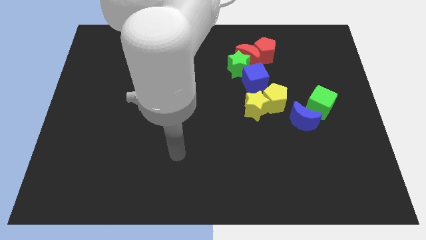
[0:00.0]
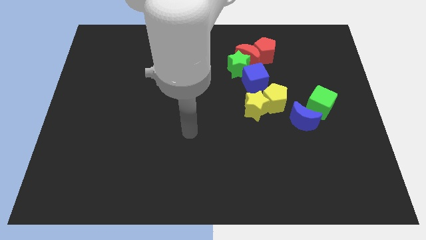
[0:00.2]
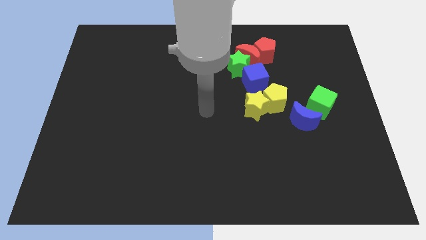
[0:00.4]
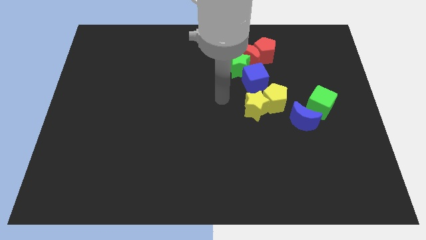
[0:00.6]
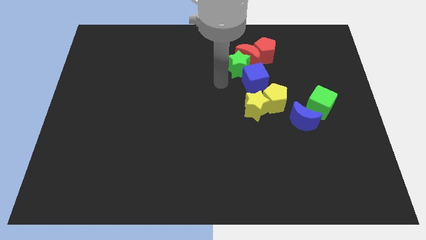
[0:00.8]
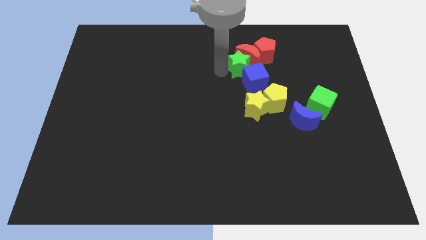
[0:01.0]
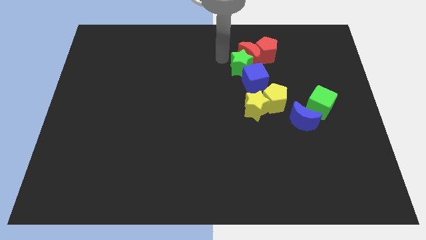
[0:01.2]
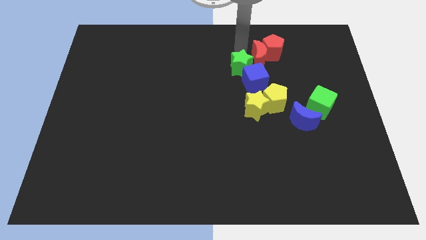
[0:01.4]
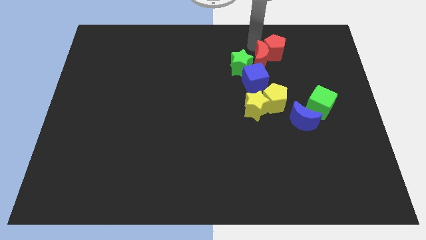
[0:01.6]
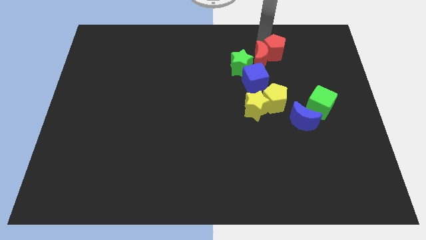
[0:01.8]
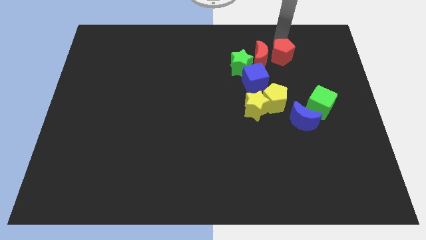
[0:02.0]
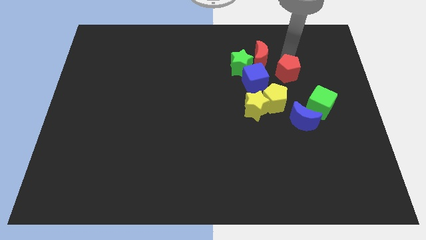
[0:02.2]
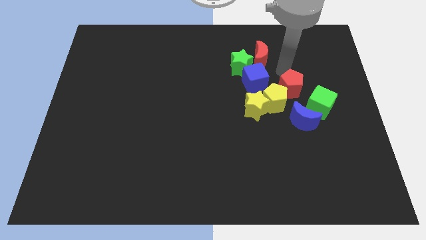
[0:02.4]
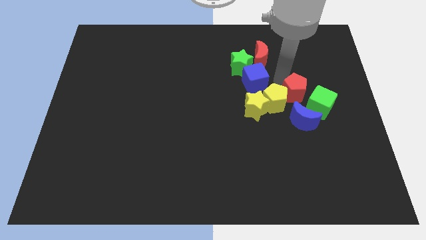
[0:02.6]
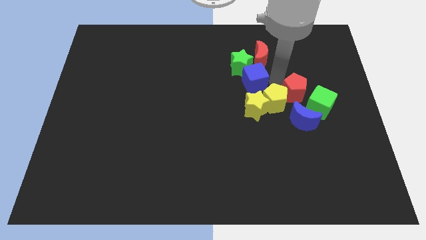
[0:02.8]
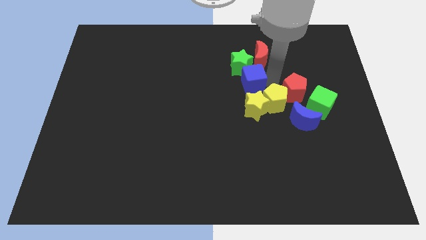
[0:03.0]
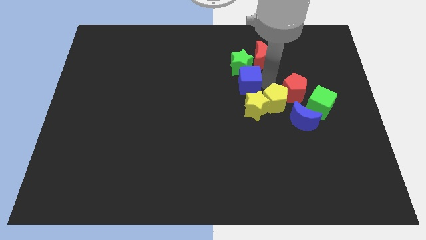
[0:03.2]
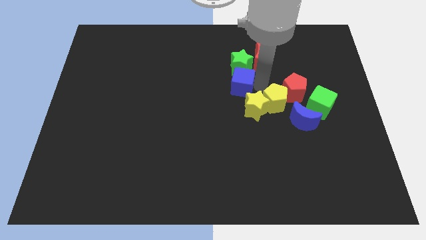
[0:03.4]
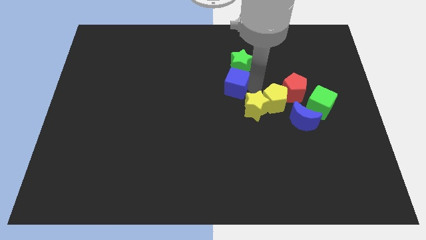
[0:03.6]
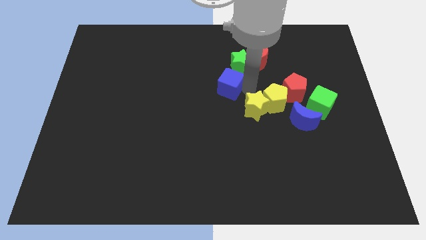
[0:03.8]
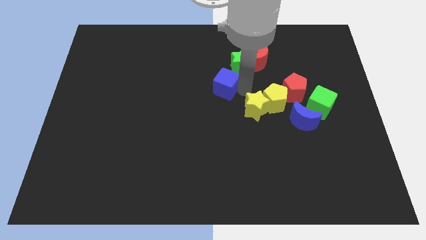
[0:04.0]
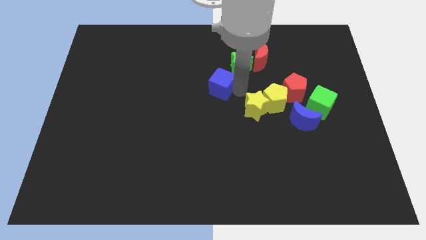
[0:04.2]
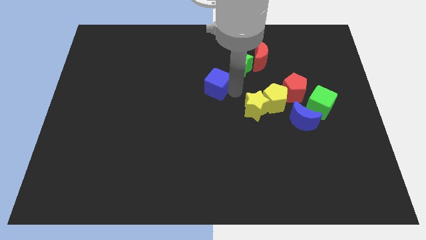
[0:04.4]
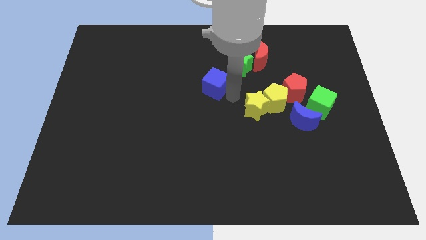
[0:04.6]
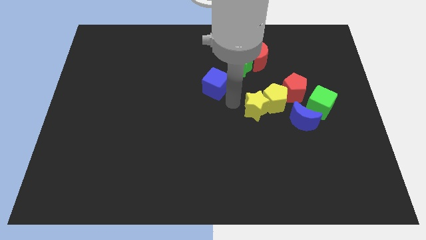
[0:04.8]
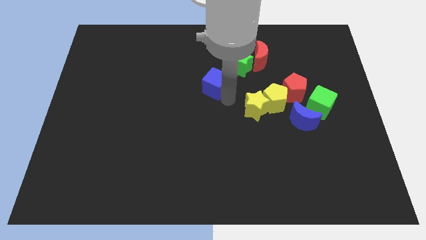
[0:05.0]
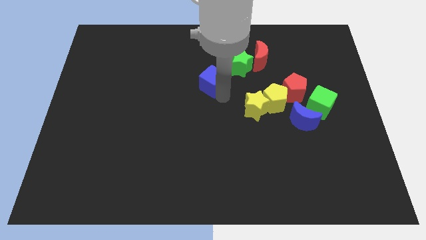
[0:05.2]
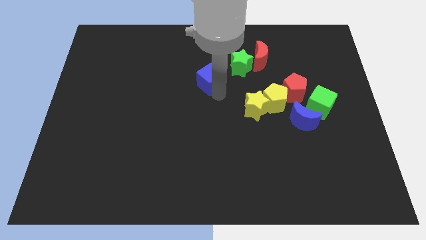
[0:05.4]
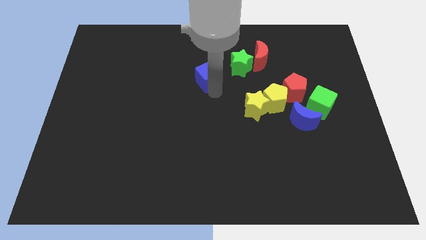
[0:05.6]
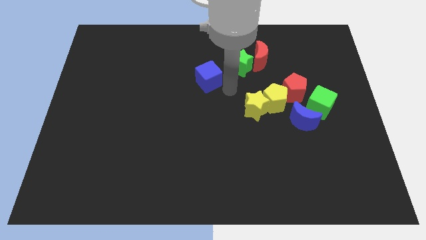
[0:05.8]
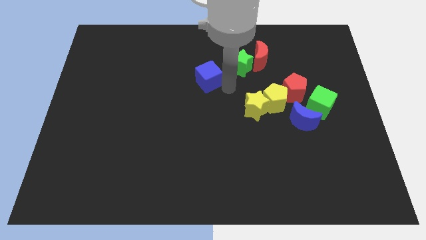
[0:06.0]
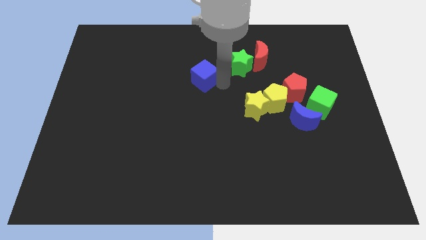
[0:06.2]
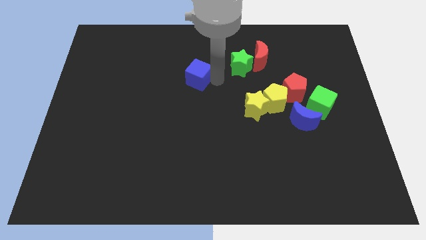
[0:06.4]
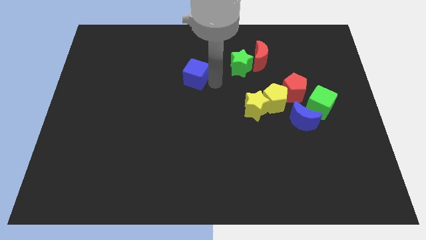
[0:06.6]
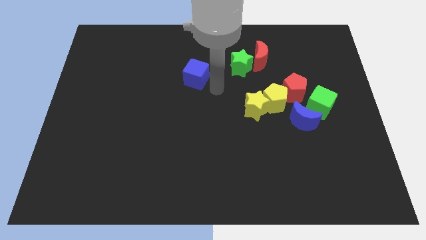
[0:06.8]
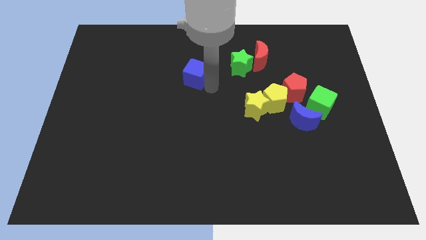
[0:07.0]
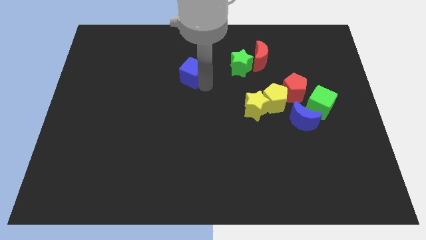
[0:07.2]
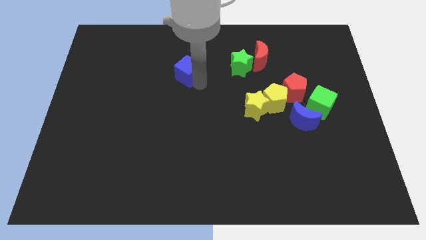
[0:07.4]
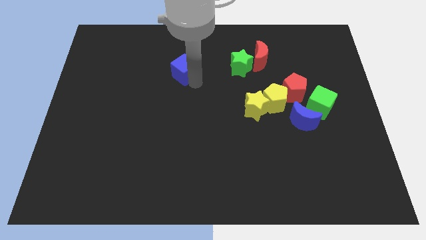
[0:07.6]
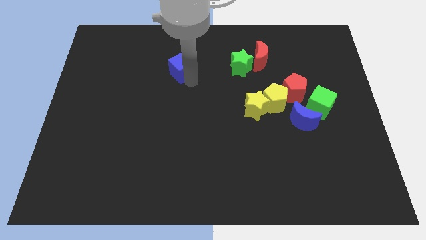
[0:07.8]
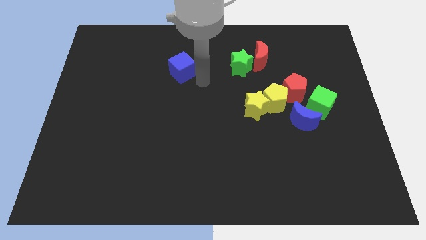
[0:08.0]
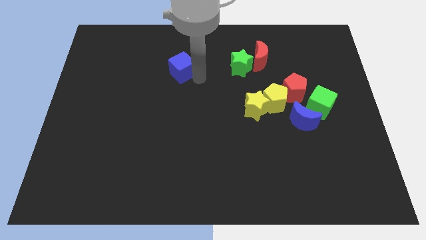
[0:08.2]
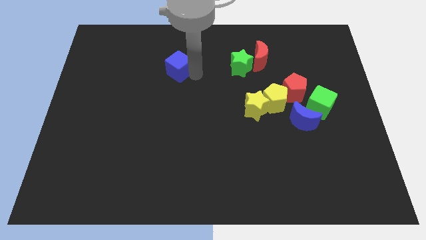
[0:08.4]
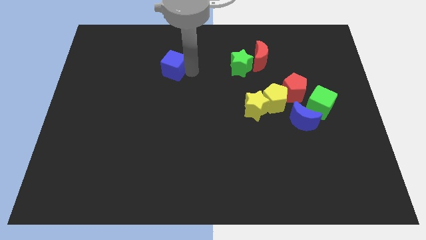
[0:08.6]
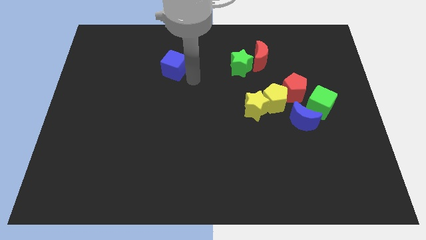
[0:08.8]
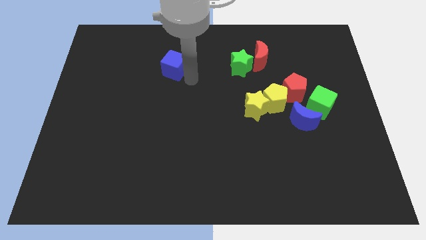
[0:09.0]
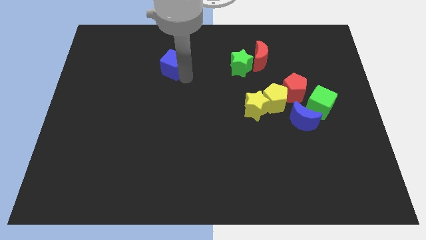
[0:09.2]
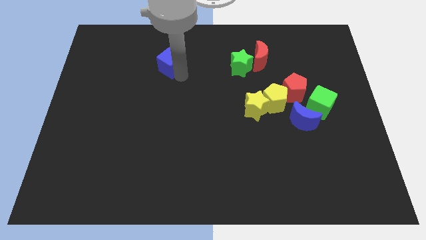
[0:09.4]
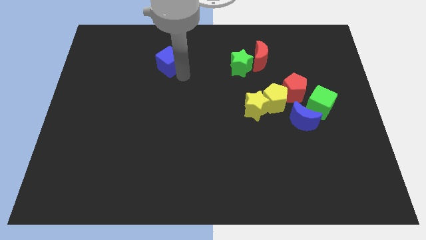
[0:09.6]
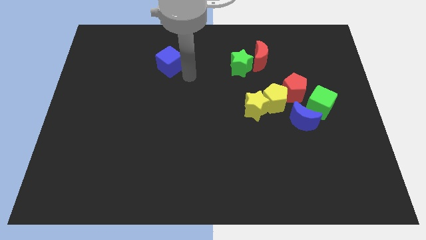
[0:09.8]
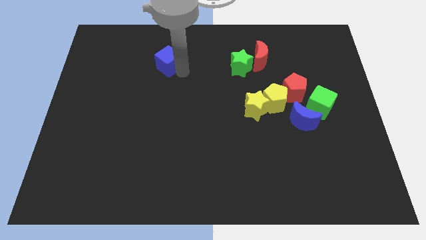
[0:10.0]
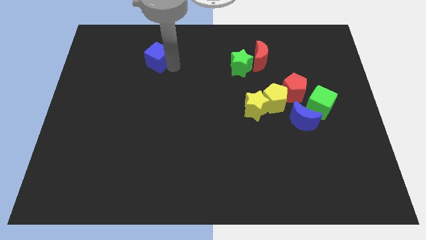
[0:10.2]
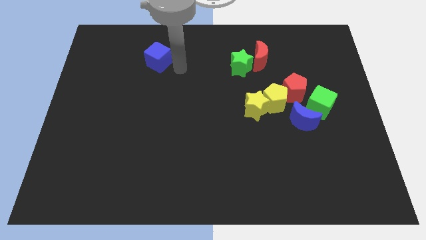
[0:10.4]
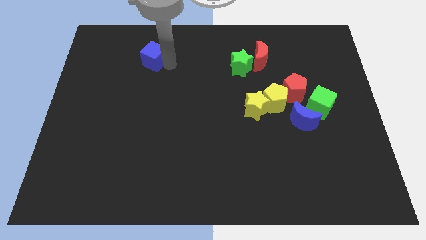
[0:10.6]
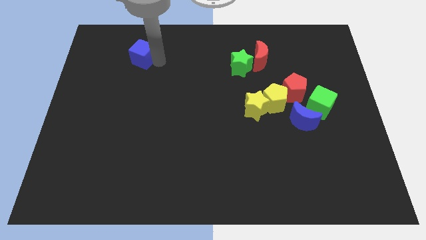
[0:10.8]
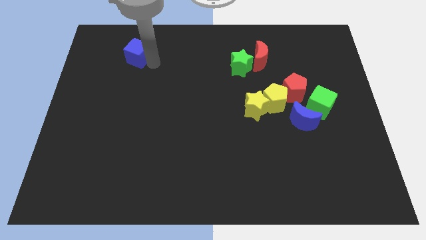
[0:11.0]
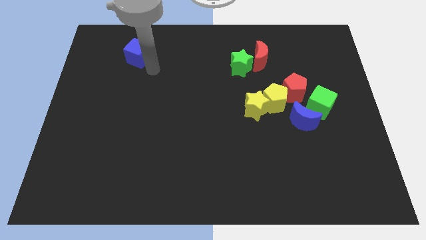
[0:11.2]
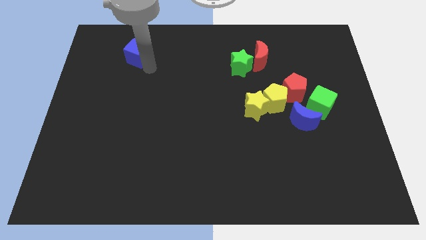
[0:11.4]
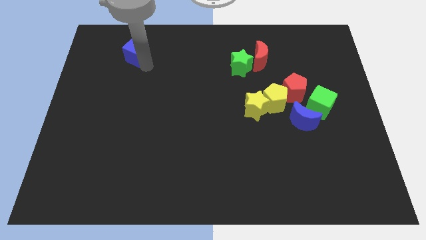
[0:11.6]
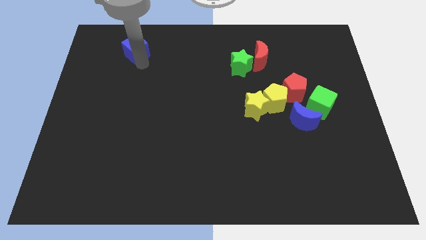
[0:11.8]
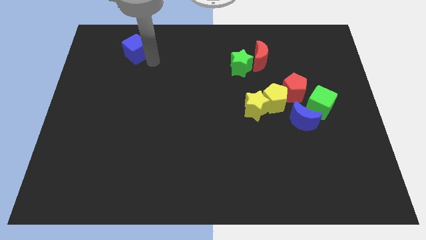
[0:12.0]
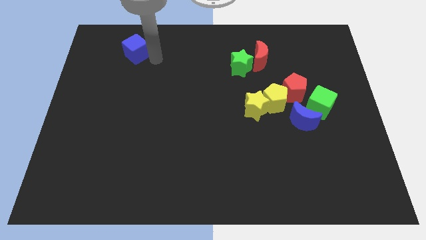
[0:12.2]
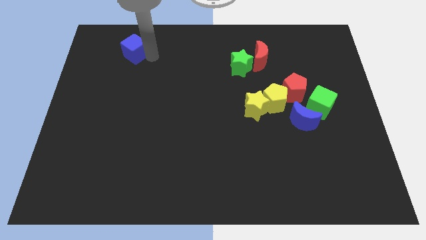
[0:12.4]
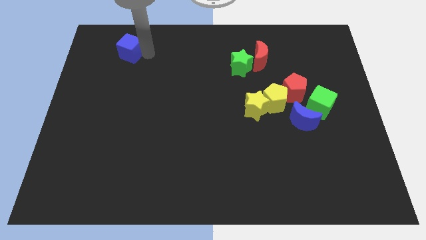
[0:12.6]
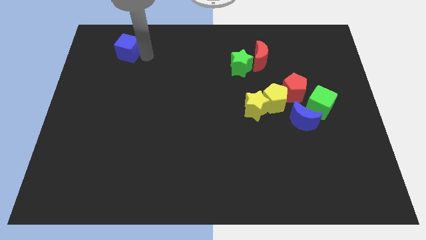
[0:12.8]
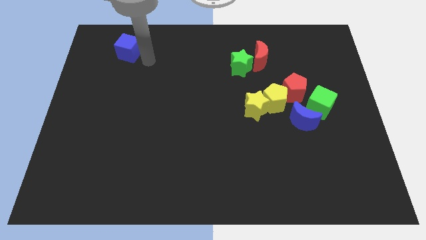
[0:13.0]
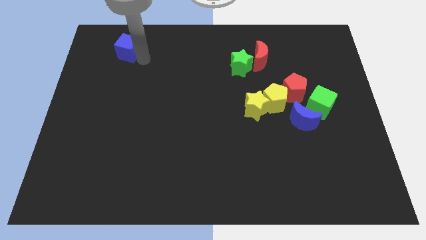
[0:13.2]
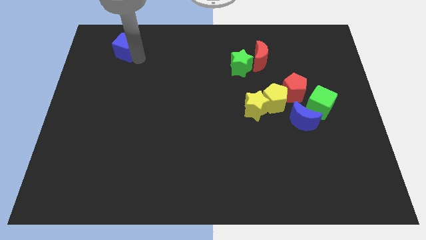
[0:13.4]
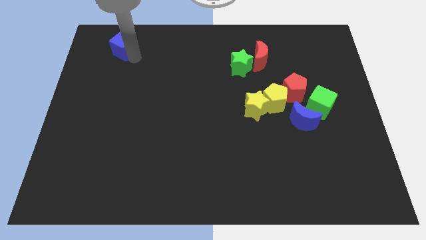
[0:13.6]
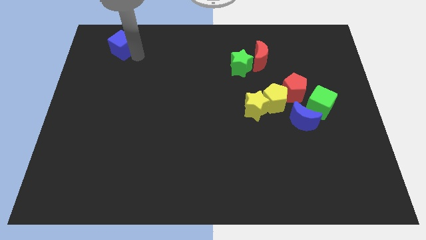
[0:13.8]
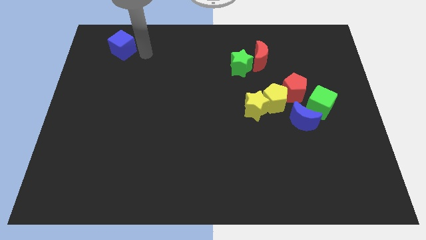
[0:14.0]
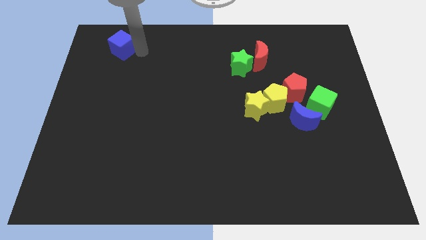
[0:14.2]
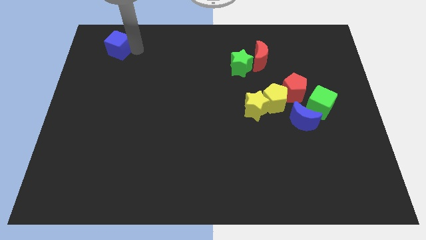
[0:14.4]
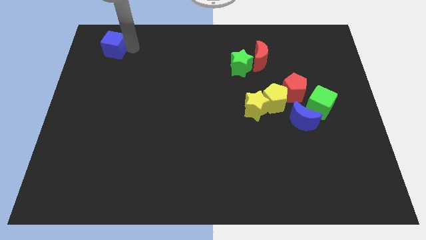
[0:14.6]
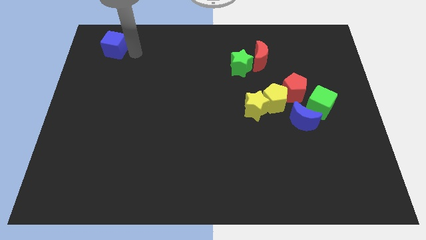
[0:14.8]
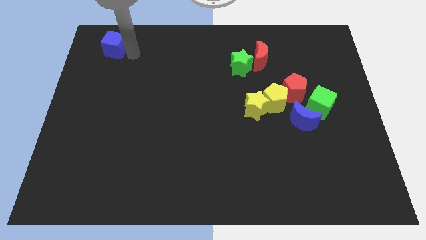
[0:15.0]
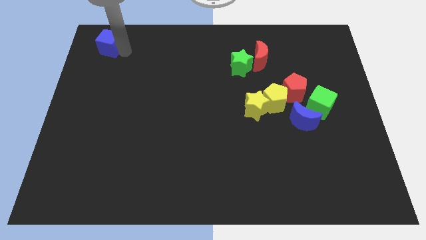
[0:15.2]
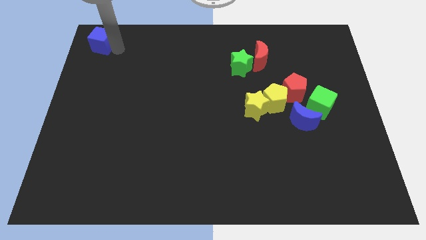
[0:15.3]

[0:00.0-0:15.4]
move the blue cube to the top left corner
